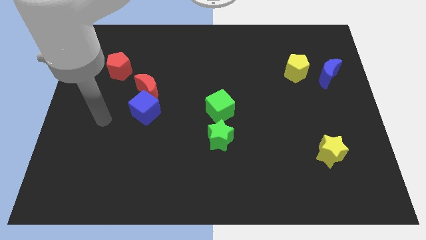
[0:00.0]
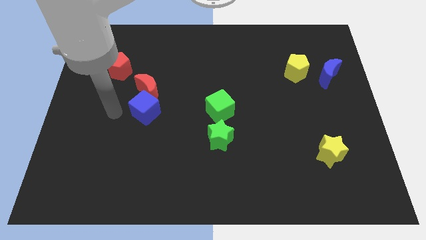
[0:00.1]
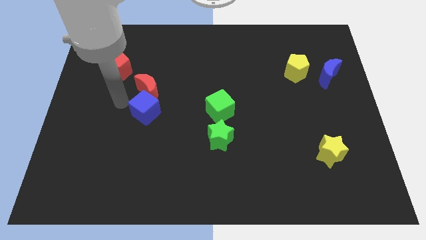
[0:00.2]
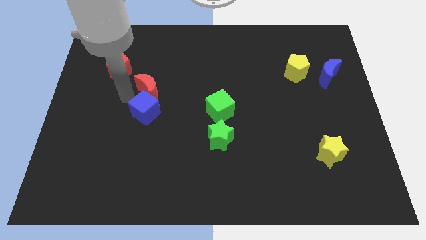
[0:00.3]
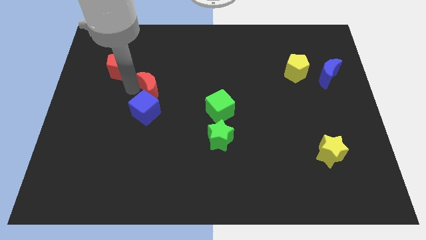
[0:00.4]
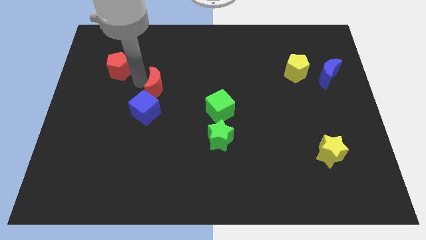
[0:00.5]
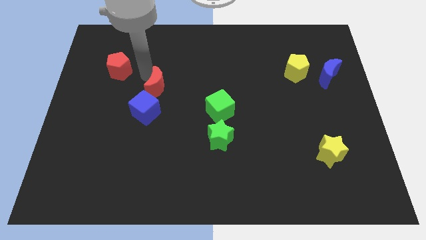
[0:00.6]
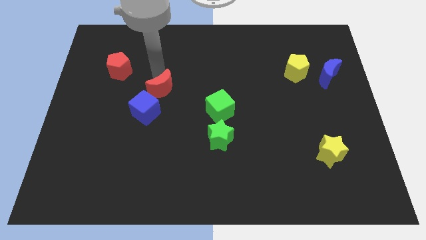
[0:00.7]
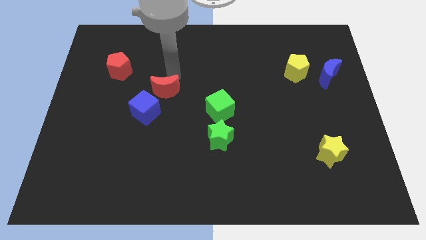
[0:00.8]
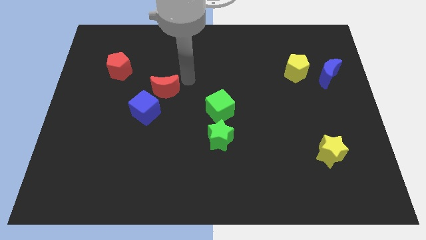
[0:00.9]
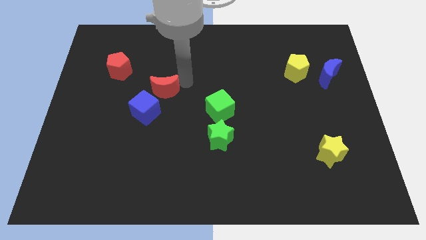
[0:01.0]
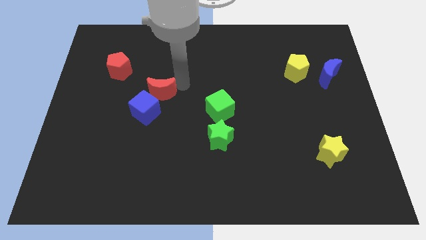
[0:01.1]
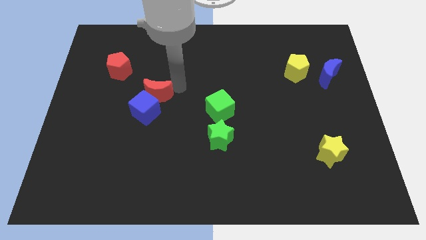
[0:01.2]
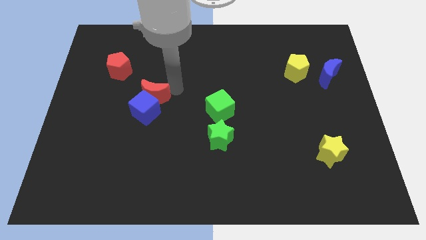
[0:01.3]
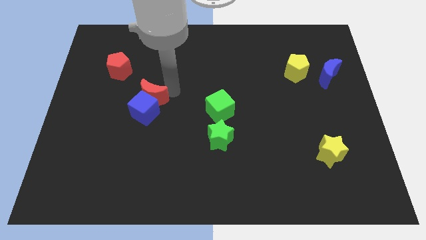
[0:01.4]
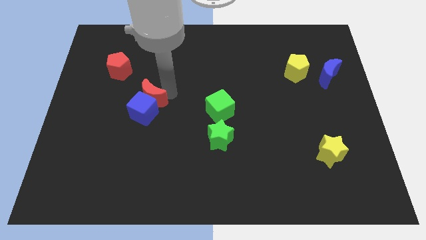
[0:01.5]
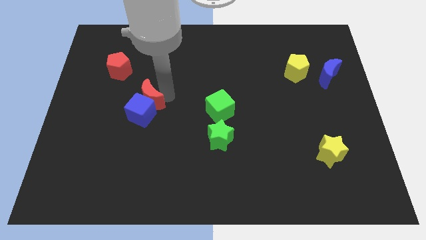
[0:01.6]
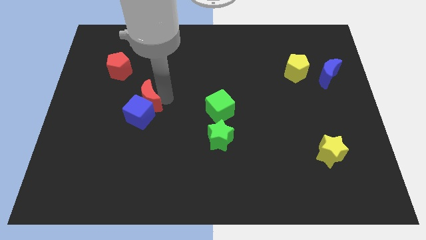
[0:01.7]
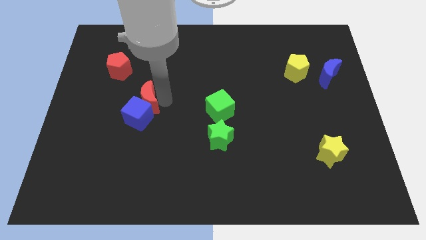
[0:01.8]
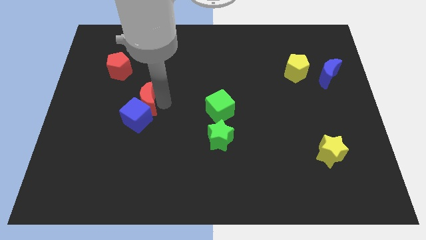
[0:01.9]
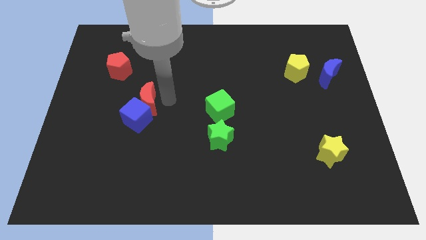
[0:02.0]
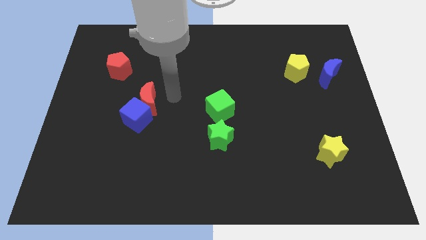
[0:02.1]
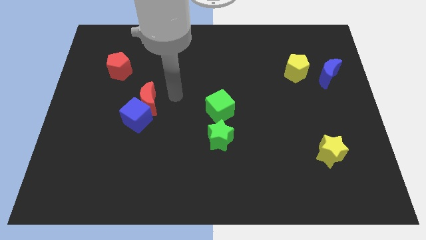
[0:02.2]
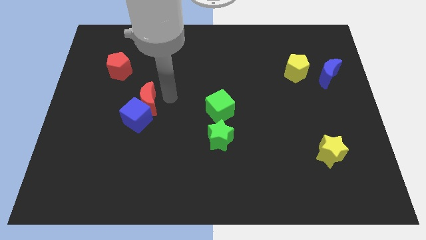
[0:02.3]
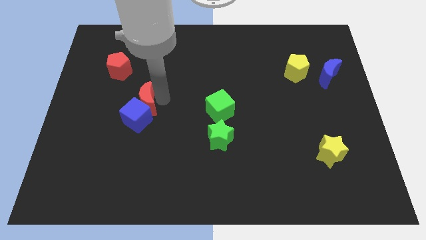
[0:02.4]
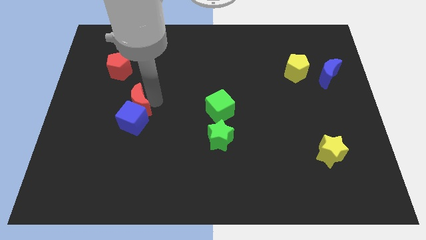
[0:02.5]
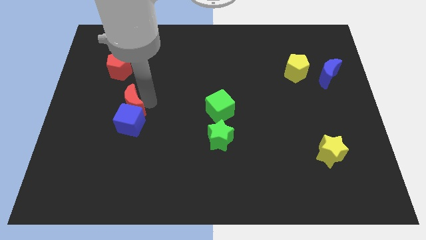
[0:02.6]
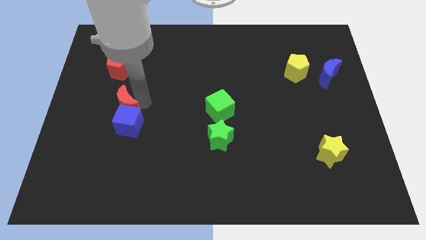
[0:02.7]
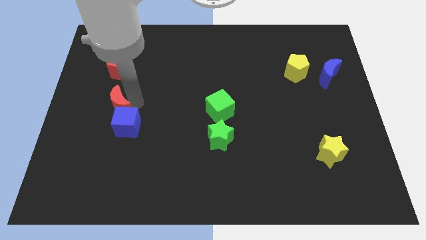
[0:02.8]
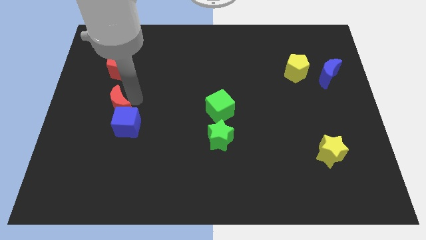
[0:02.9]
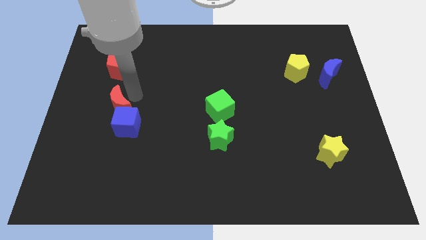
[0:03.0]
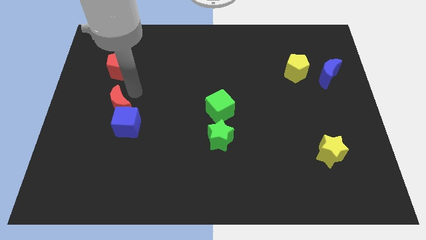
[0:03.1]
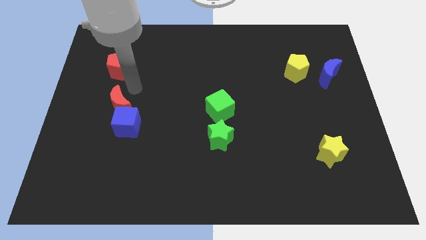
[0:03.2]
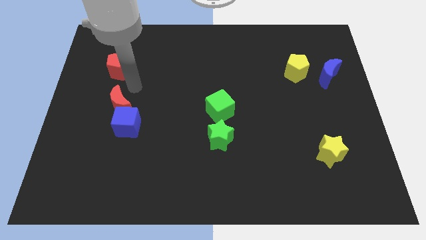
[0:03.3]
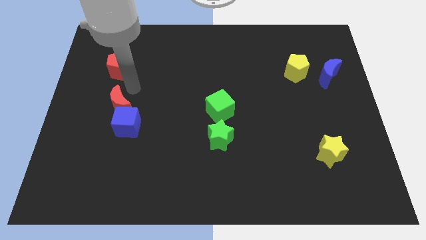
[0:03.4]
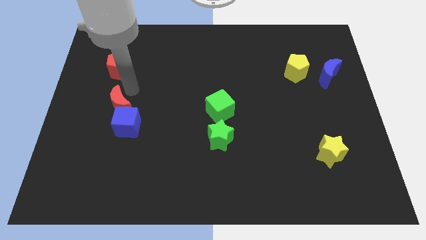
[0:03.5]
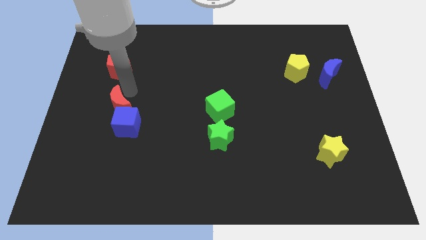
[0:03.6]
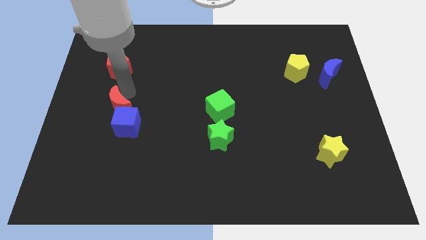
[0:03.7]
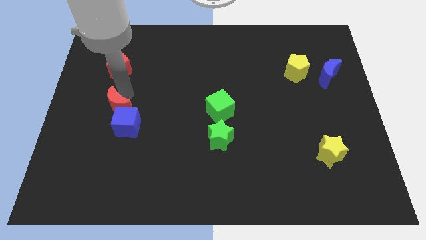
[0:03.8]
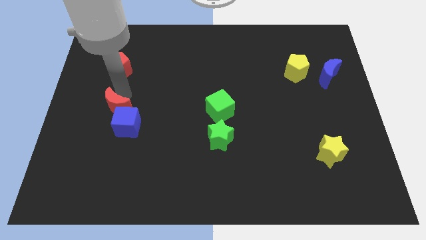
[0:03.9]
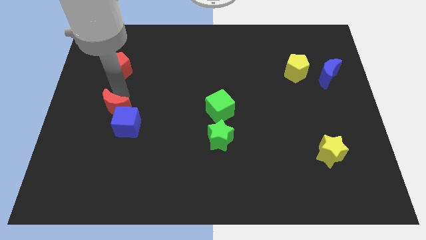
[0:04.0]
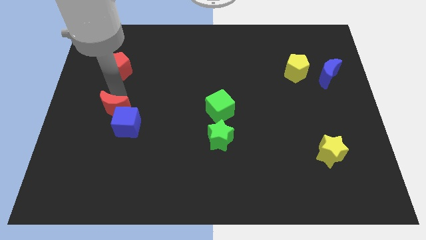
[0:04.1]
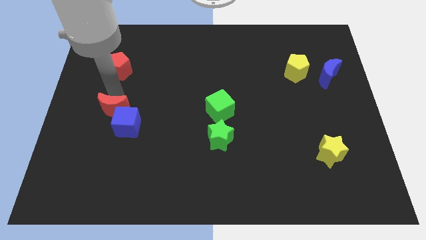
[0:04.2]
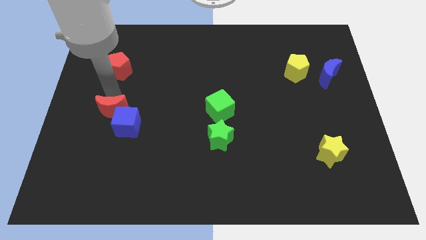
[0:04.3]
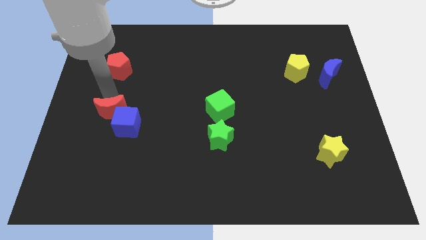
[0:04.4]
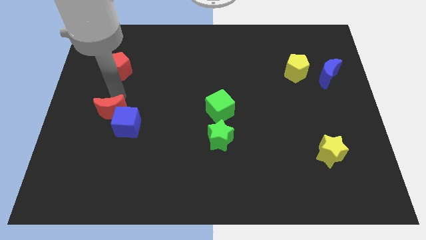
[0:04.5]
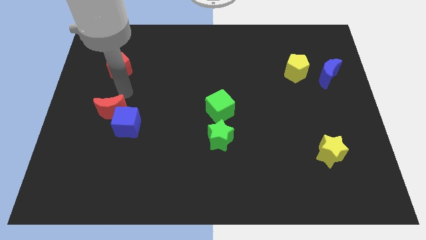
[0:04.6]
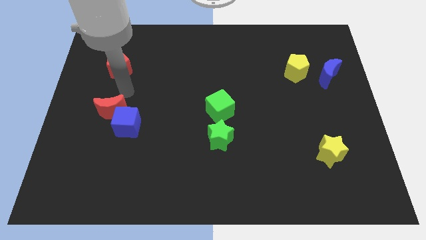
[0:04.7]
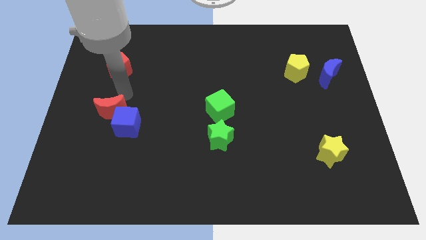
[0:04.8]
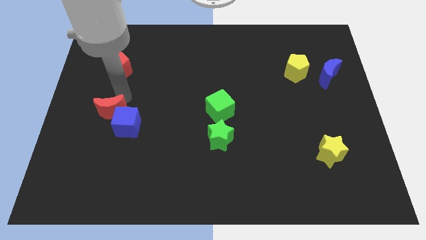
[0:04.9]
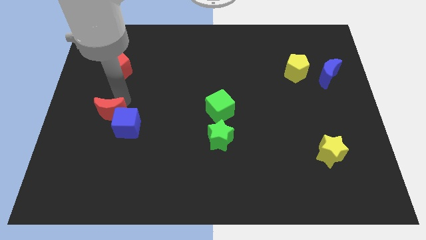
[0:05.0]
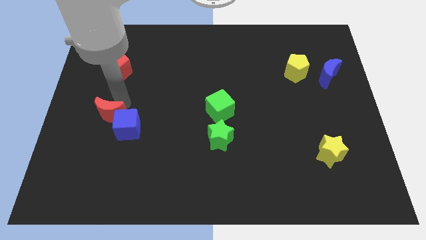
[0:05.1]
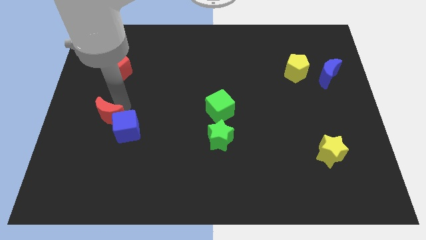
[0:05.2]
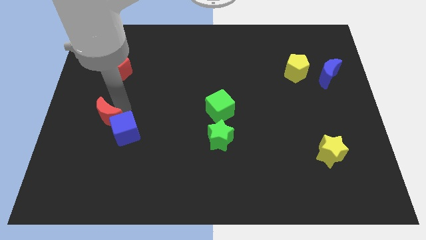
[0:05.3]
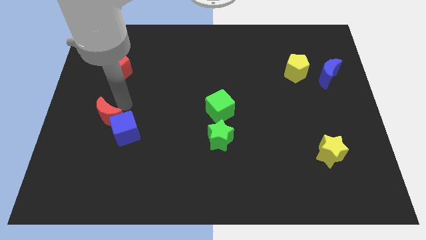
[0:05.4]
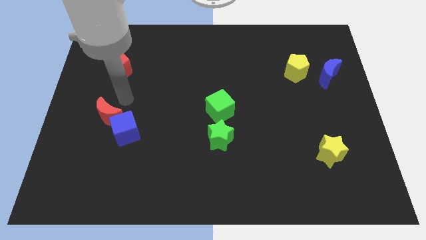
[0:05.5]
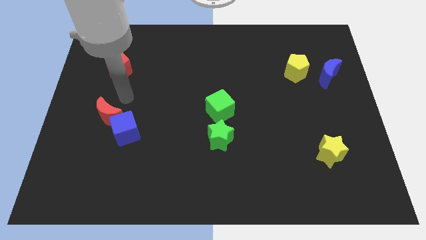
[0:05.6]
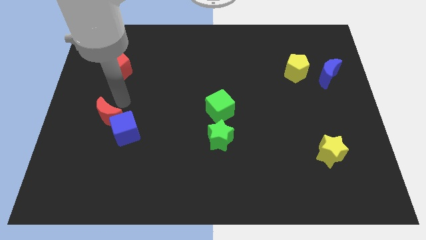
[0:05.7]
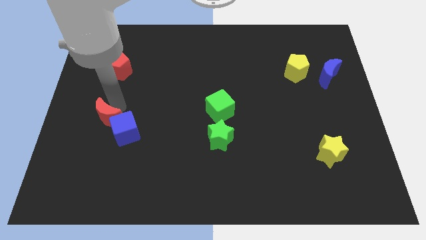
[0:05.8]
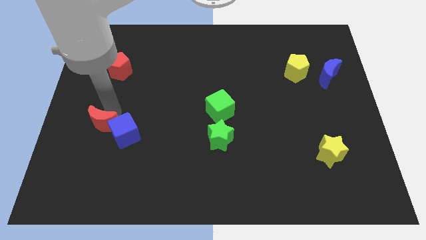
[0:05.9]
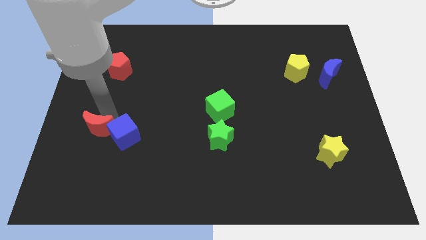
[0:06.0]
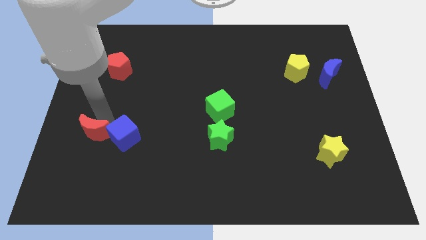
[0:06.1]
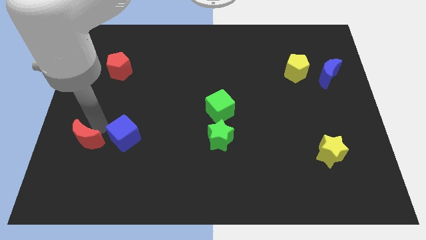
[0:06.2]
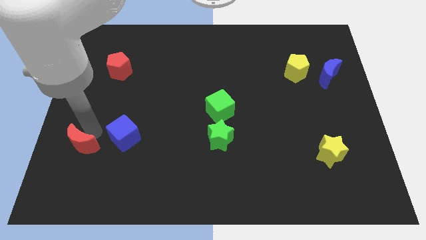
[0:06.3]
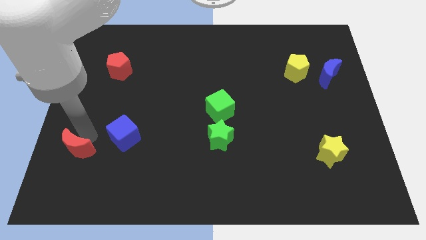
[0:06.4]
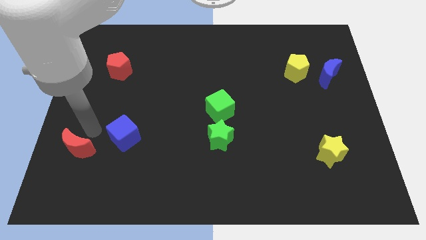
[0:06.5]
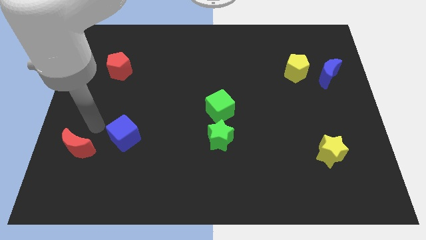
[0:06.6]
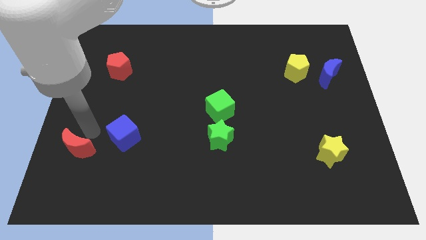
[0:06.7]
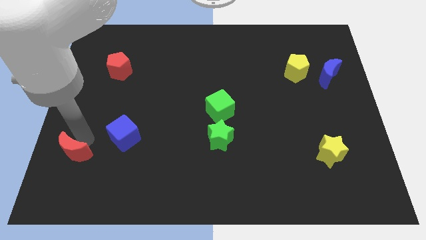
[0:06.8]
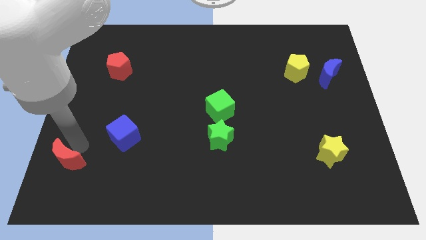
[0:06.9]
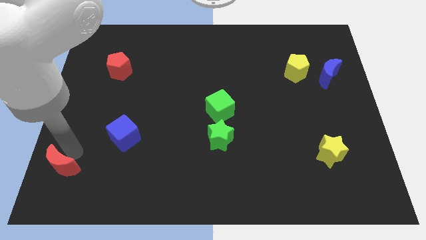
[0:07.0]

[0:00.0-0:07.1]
move the red moon to the bottom left

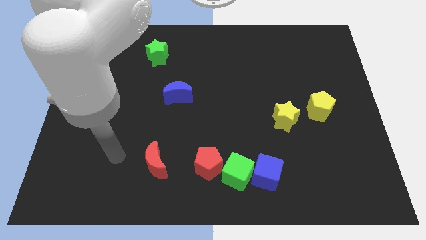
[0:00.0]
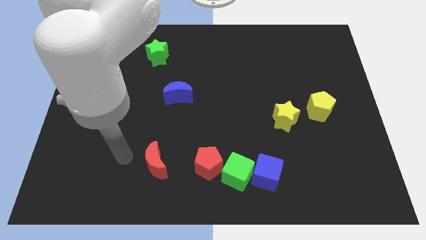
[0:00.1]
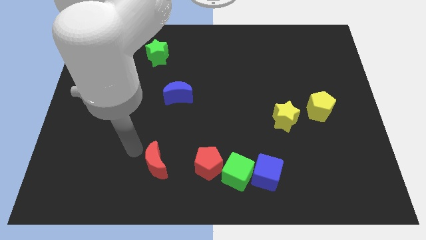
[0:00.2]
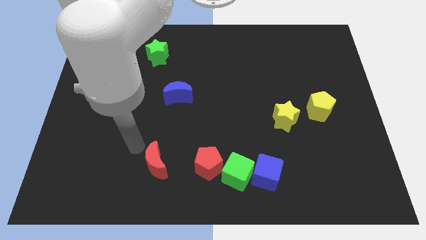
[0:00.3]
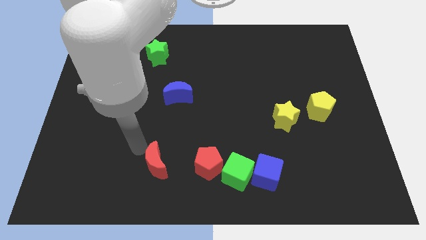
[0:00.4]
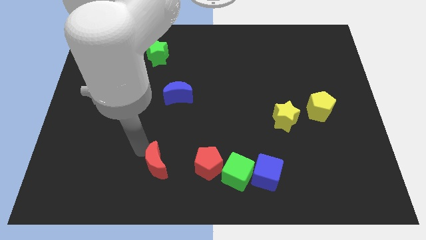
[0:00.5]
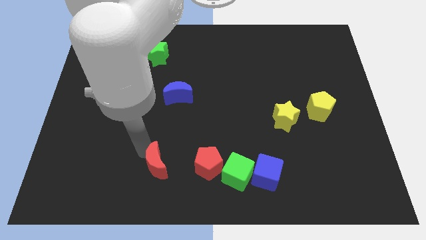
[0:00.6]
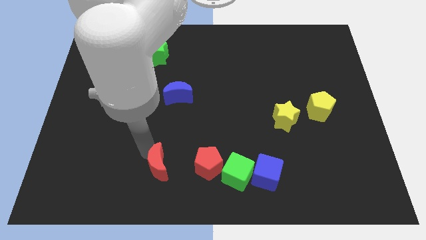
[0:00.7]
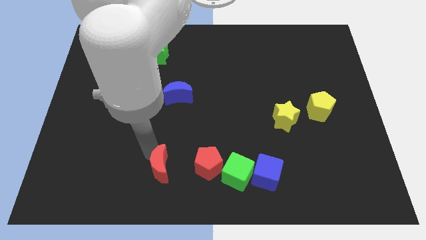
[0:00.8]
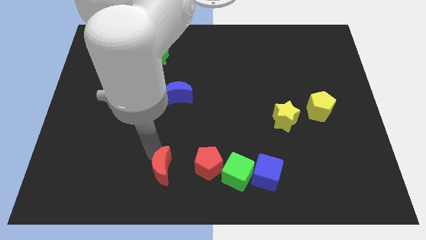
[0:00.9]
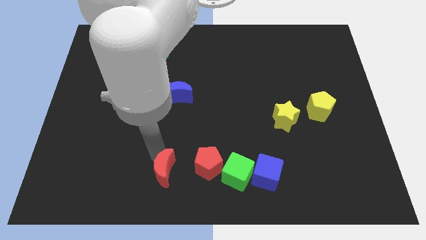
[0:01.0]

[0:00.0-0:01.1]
put the red moon to the bottom
